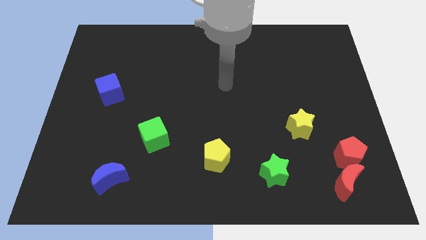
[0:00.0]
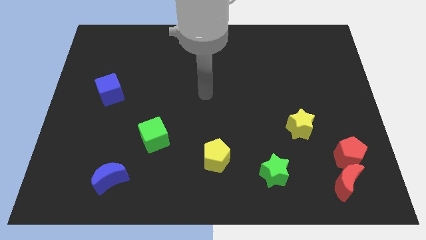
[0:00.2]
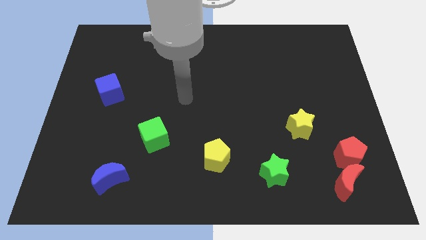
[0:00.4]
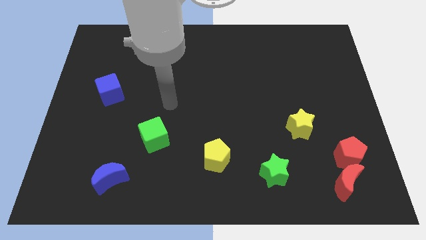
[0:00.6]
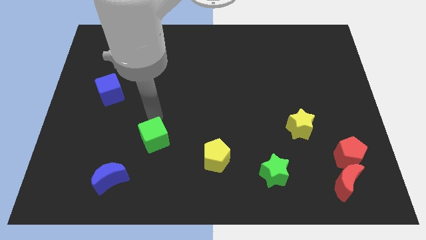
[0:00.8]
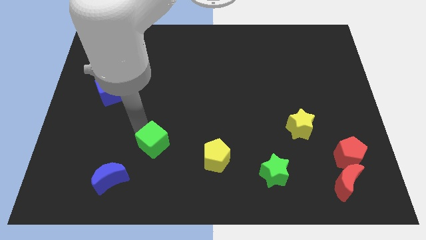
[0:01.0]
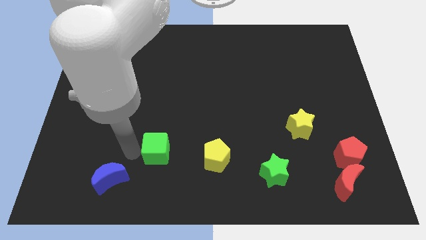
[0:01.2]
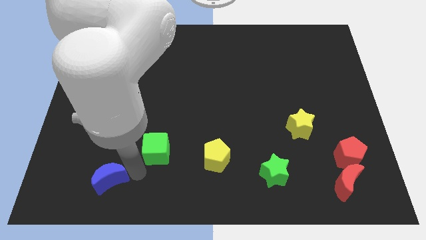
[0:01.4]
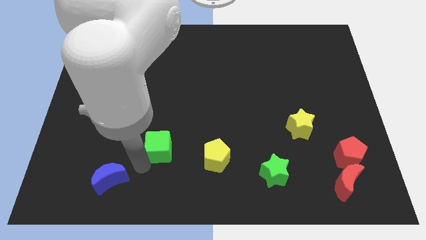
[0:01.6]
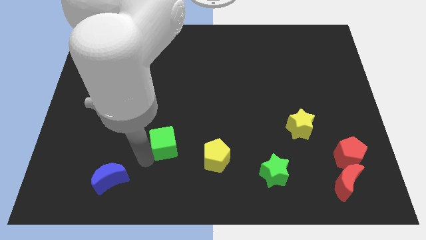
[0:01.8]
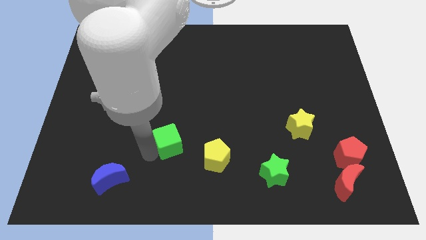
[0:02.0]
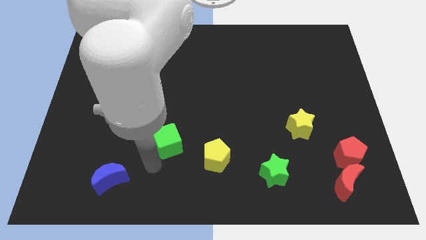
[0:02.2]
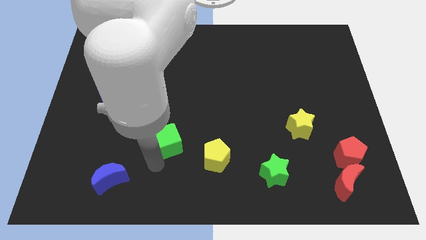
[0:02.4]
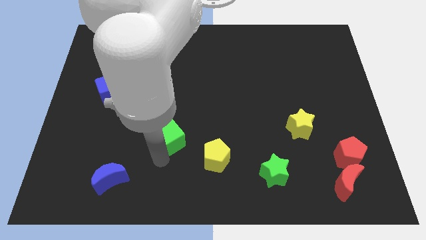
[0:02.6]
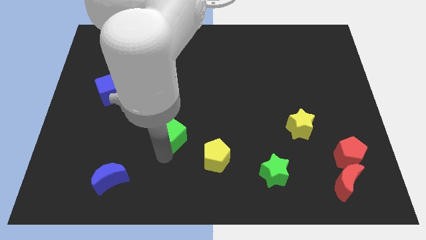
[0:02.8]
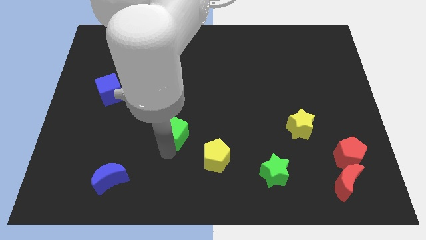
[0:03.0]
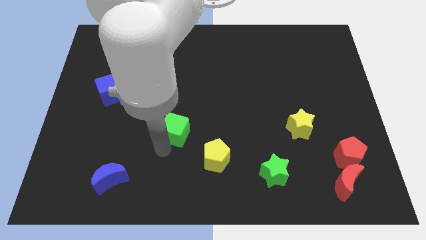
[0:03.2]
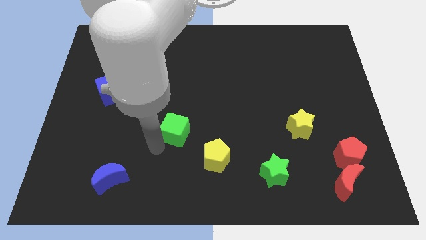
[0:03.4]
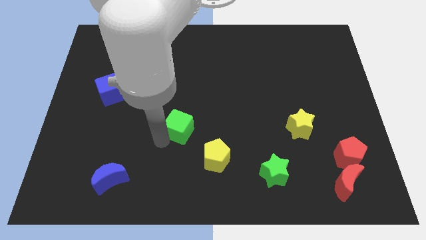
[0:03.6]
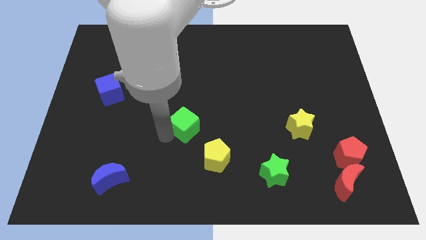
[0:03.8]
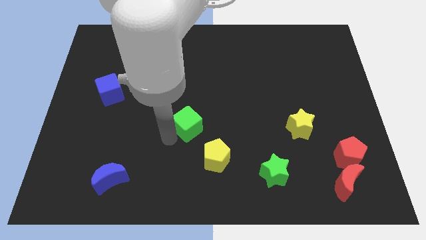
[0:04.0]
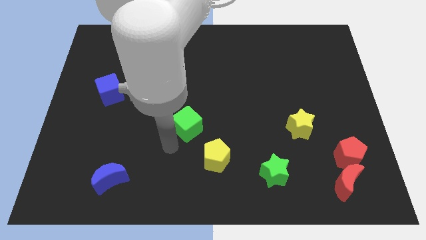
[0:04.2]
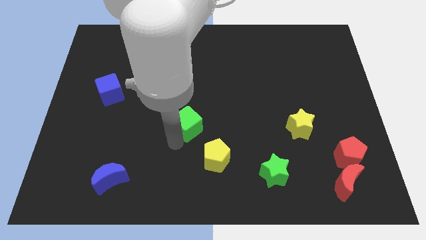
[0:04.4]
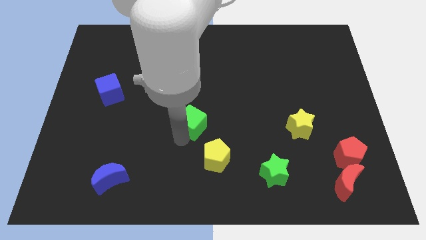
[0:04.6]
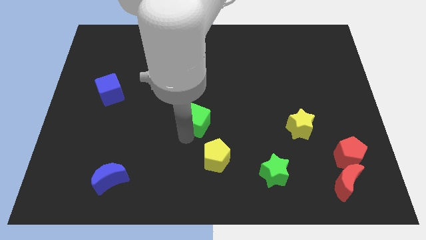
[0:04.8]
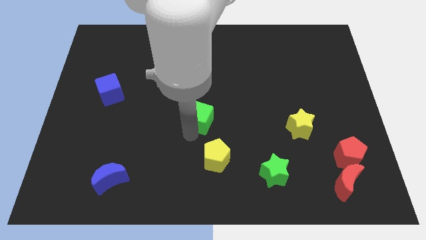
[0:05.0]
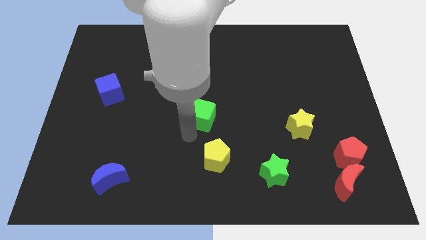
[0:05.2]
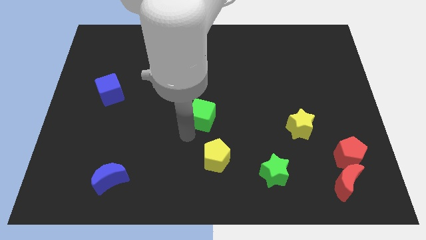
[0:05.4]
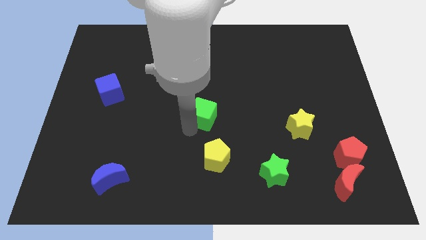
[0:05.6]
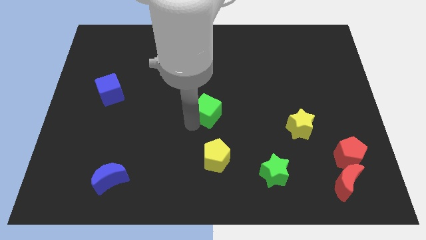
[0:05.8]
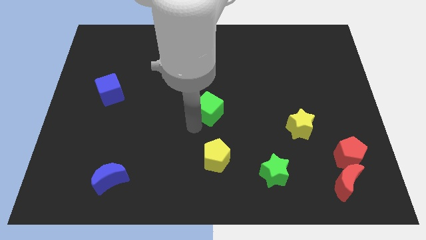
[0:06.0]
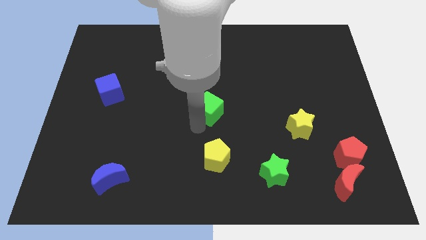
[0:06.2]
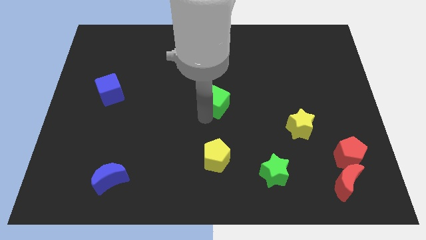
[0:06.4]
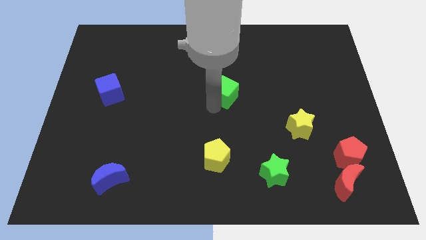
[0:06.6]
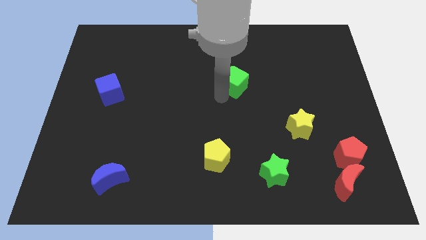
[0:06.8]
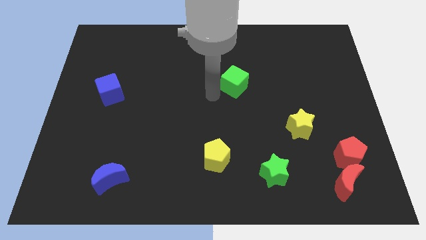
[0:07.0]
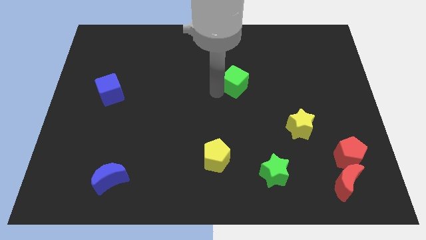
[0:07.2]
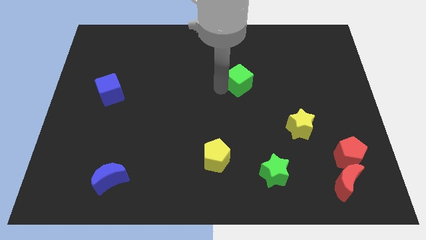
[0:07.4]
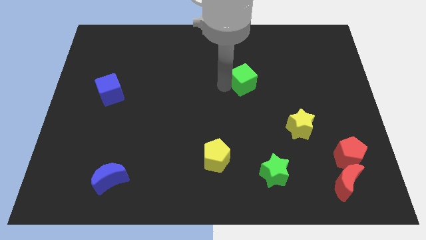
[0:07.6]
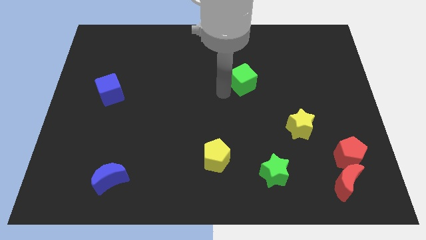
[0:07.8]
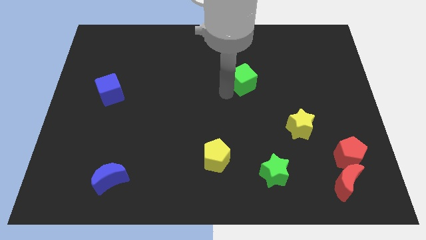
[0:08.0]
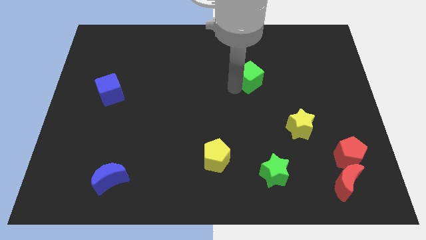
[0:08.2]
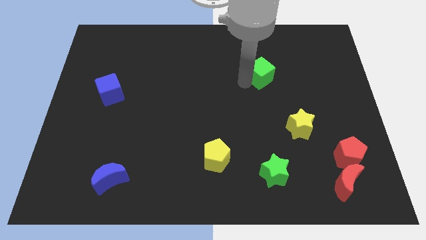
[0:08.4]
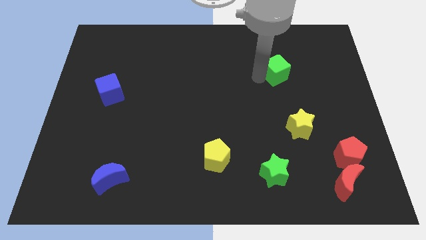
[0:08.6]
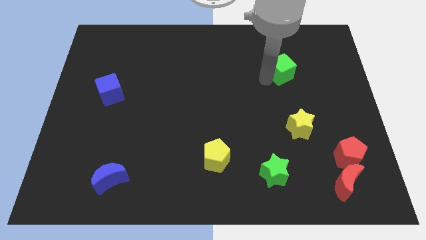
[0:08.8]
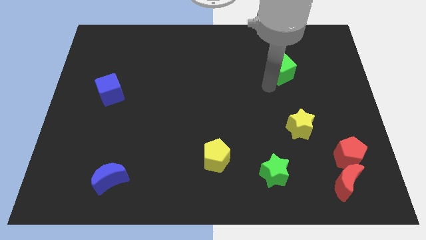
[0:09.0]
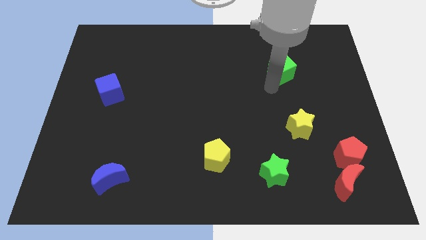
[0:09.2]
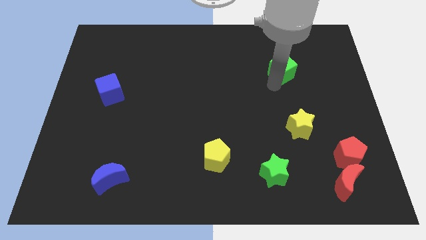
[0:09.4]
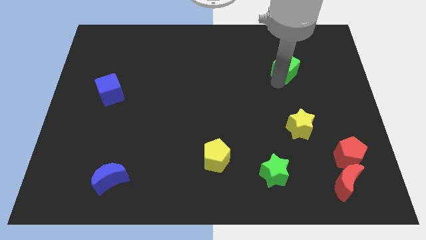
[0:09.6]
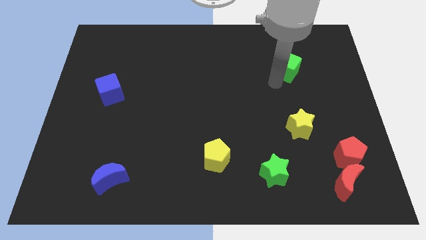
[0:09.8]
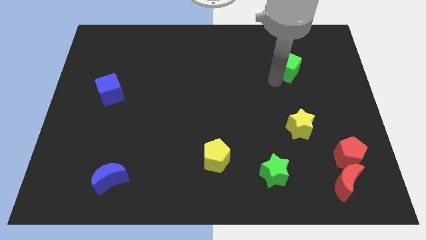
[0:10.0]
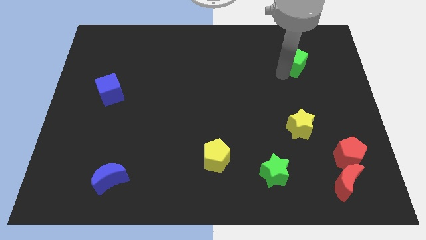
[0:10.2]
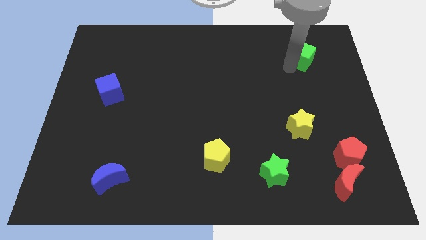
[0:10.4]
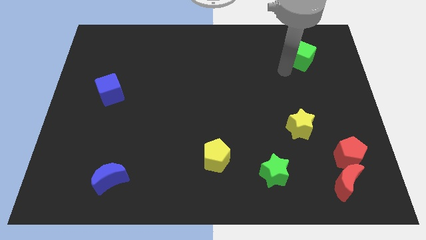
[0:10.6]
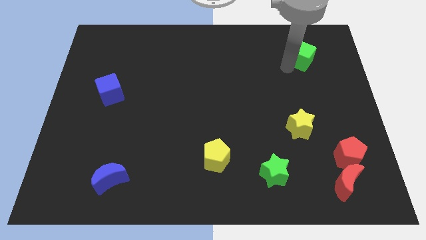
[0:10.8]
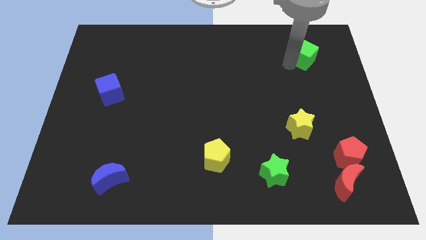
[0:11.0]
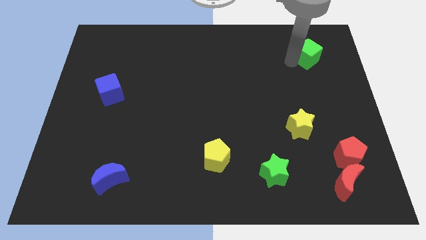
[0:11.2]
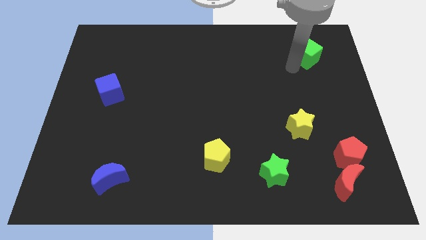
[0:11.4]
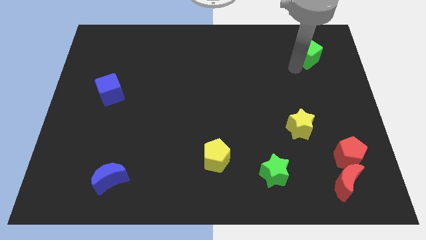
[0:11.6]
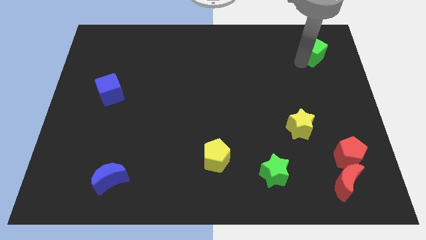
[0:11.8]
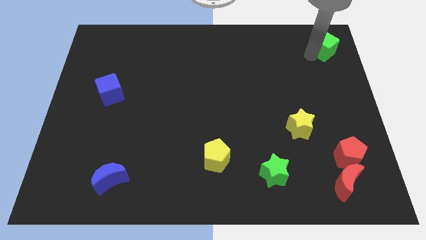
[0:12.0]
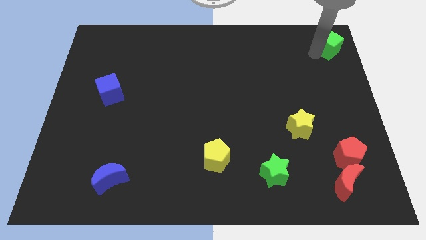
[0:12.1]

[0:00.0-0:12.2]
push the green cube to the top right of the board
